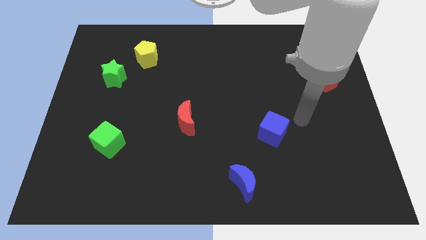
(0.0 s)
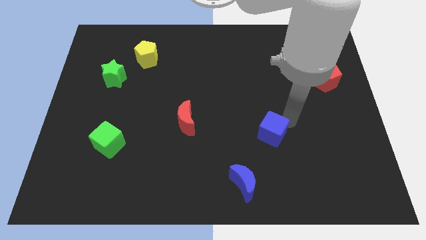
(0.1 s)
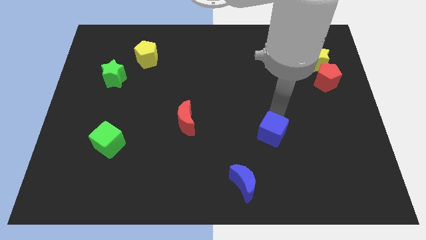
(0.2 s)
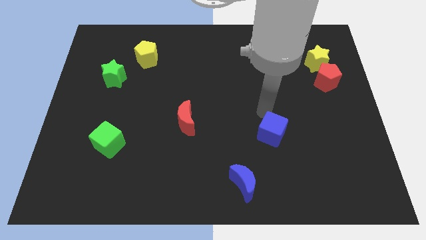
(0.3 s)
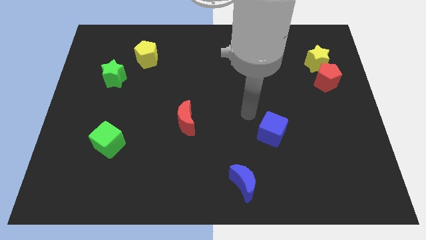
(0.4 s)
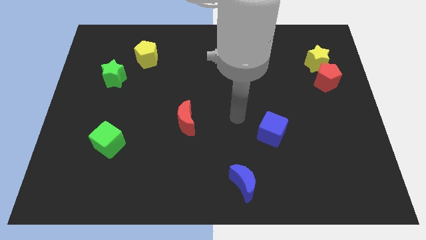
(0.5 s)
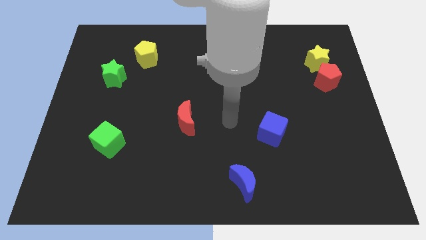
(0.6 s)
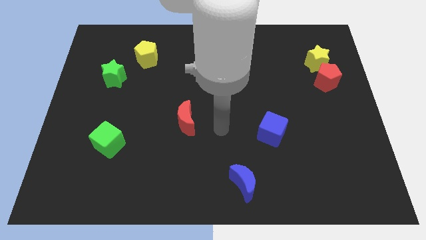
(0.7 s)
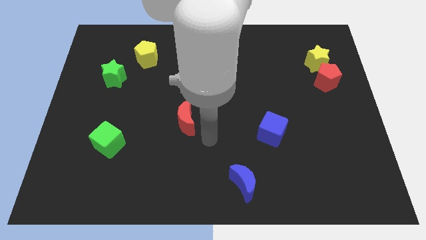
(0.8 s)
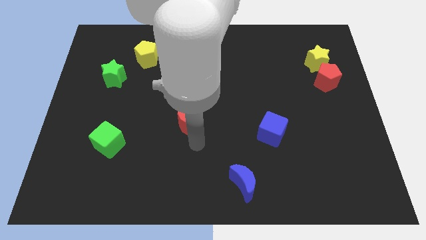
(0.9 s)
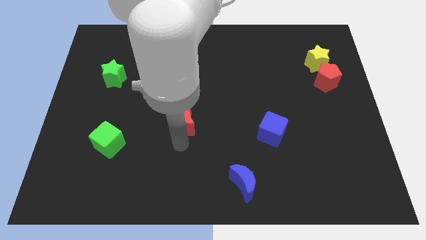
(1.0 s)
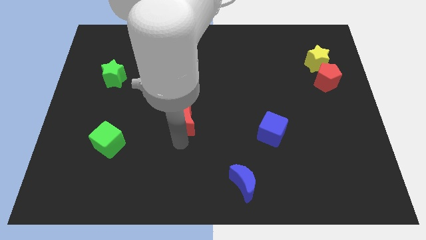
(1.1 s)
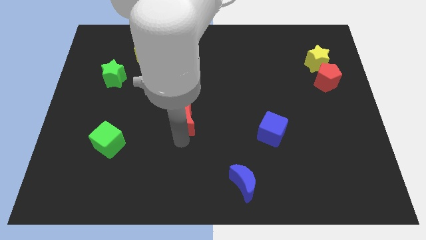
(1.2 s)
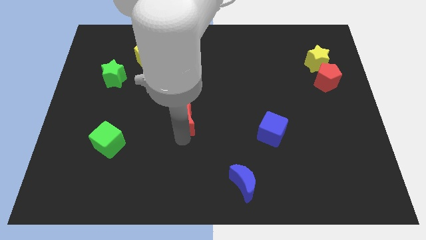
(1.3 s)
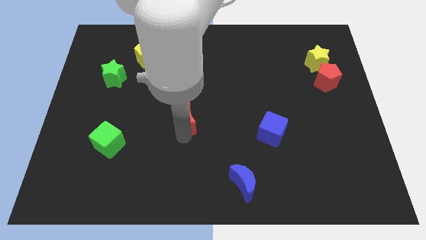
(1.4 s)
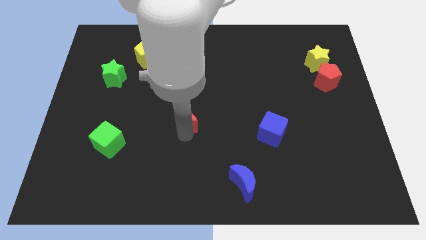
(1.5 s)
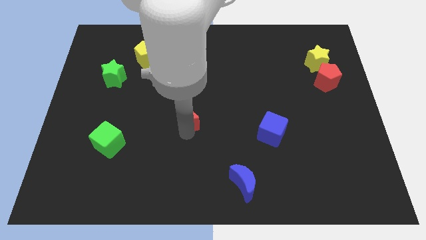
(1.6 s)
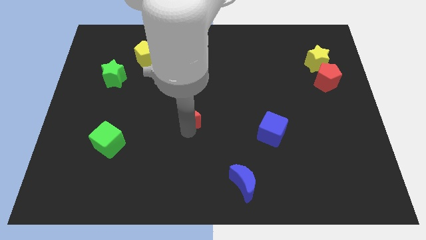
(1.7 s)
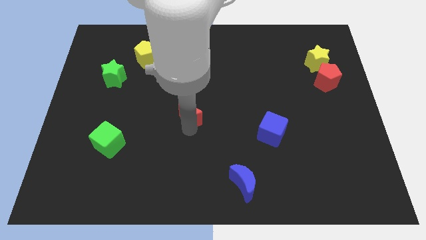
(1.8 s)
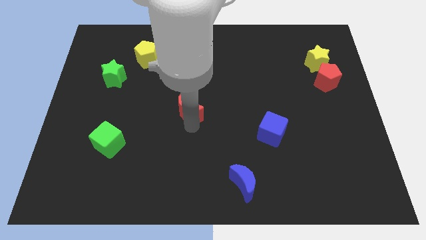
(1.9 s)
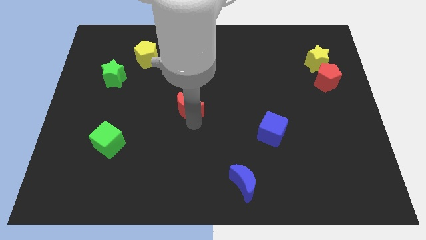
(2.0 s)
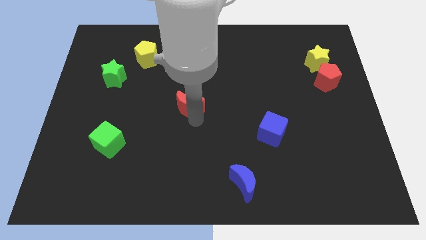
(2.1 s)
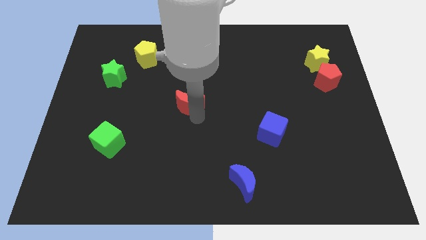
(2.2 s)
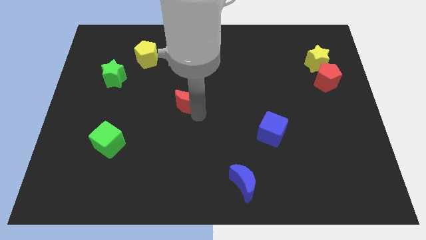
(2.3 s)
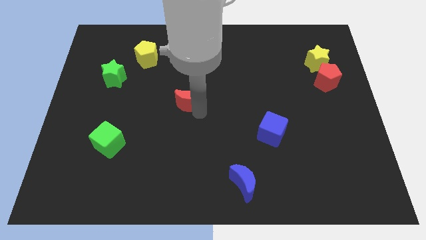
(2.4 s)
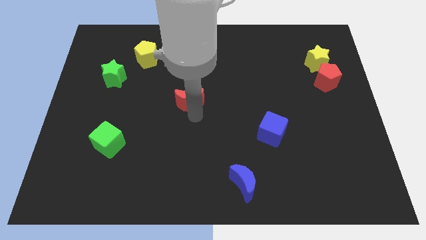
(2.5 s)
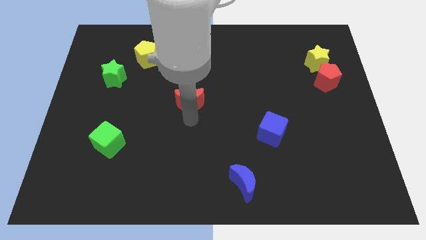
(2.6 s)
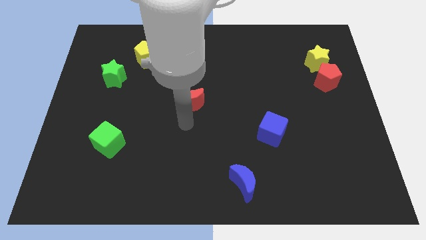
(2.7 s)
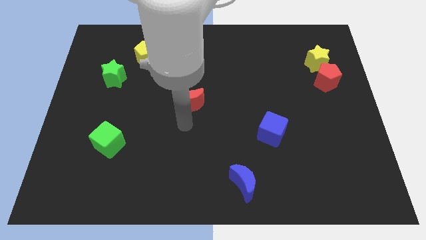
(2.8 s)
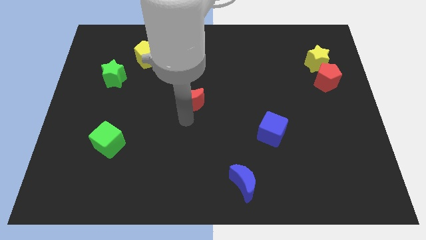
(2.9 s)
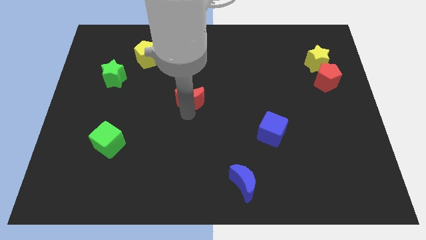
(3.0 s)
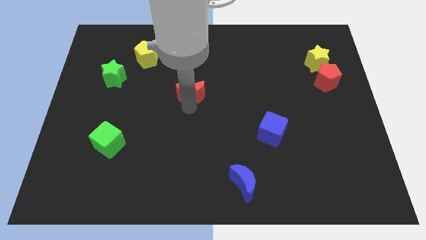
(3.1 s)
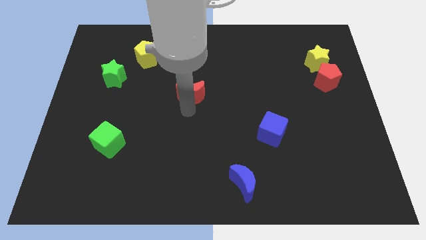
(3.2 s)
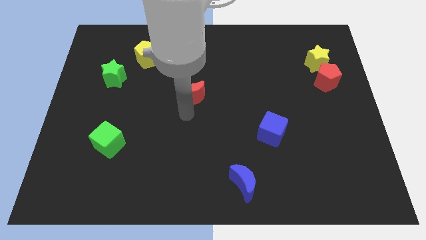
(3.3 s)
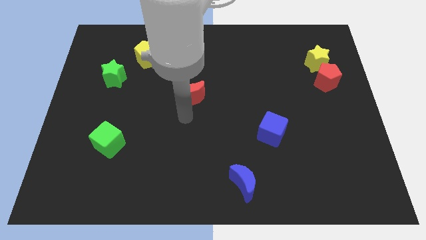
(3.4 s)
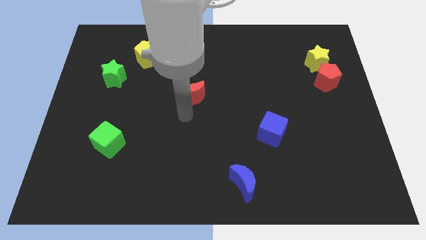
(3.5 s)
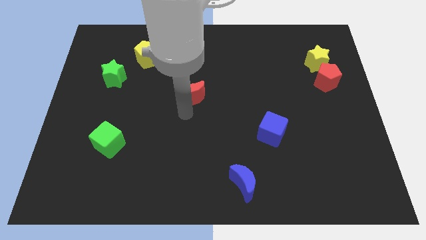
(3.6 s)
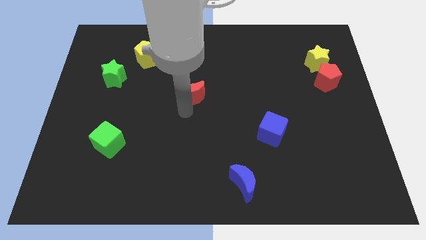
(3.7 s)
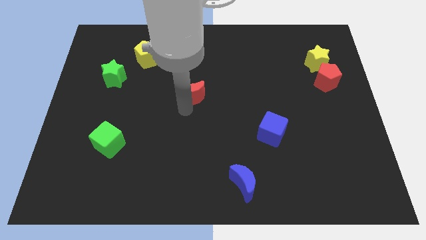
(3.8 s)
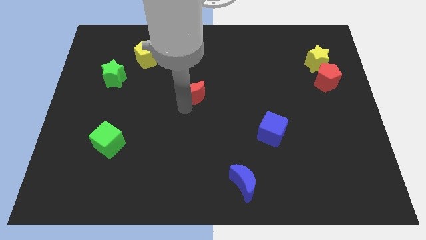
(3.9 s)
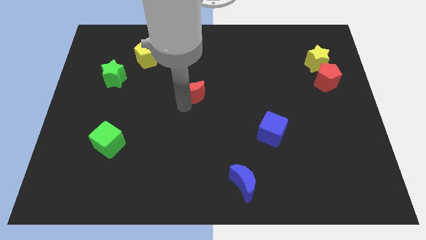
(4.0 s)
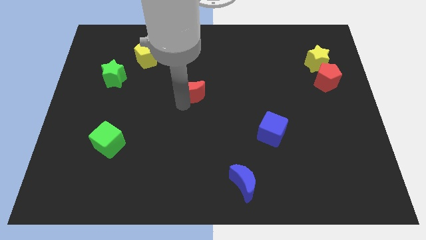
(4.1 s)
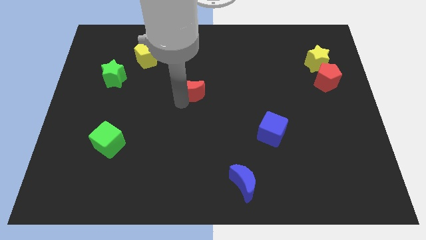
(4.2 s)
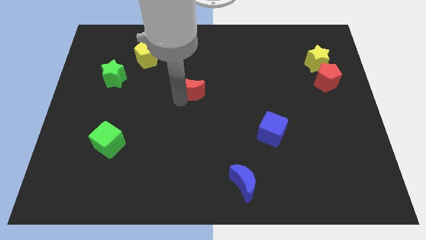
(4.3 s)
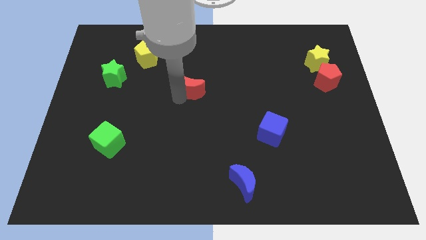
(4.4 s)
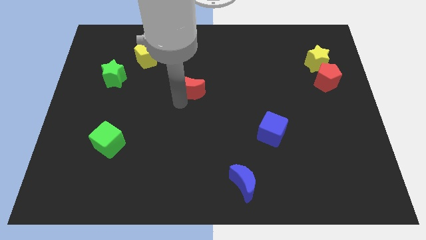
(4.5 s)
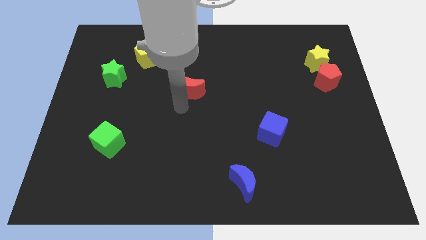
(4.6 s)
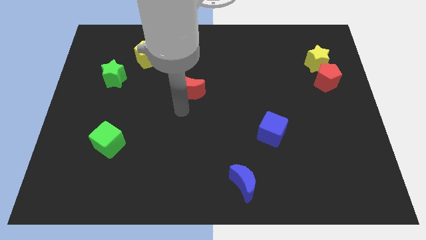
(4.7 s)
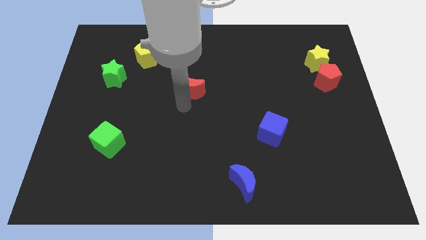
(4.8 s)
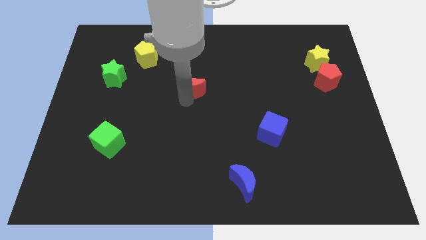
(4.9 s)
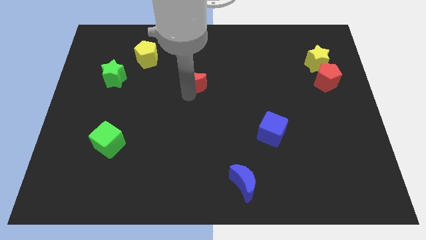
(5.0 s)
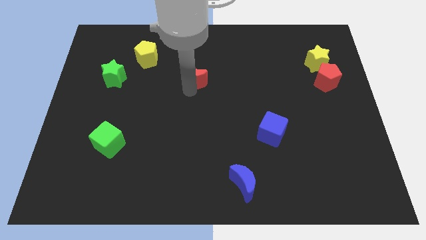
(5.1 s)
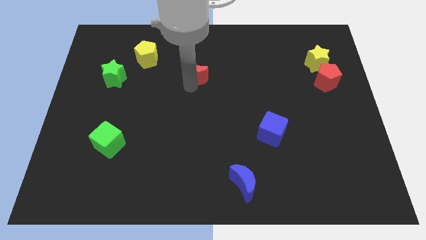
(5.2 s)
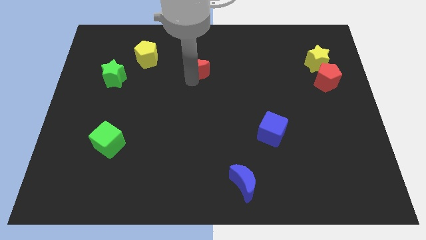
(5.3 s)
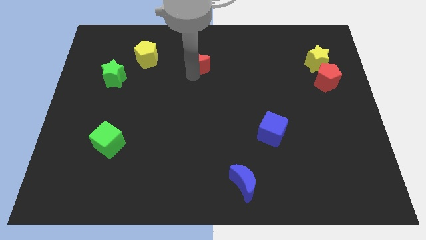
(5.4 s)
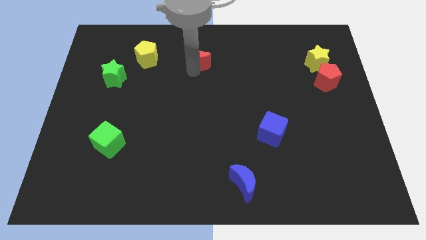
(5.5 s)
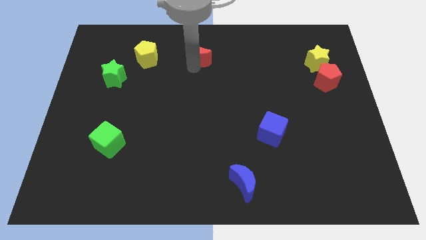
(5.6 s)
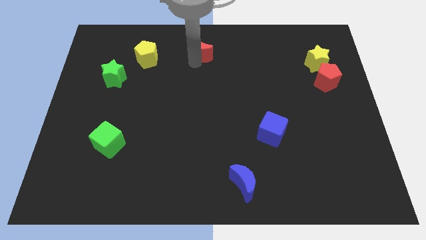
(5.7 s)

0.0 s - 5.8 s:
move the red moon to the top side
